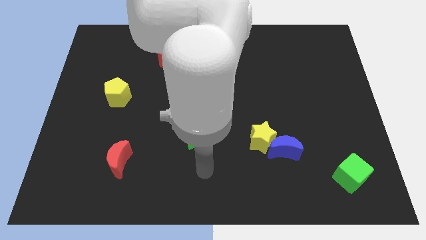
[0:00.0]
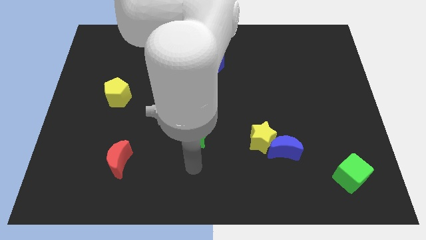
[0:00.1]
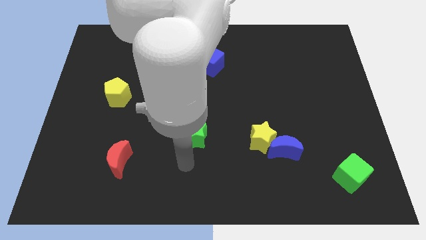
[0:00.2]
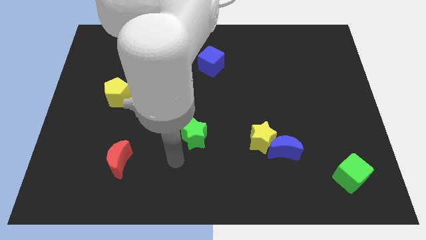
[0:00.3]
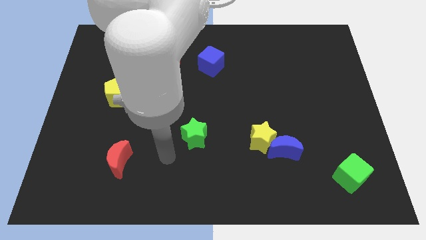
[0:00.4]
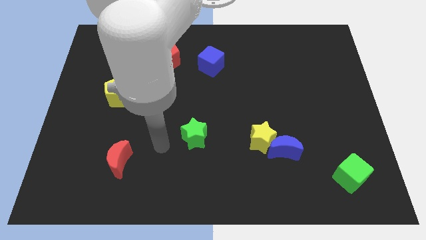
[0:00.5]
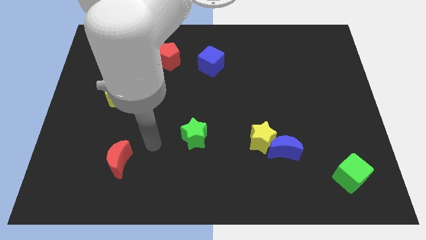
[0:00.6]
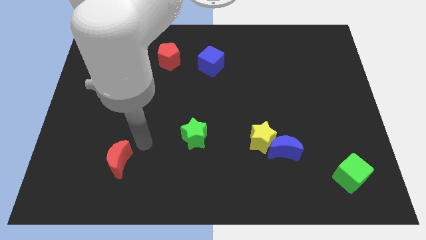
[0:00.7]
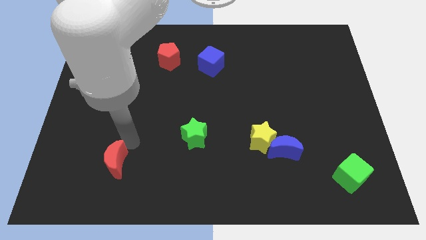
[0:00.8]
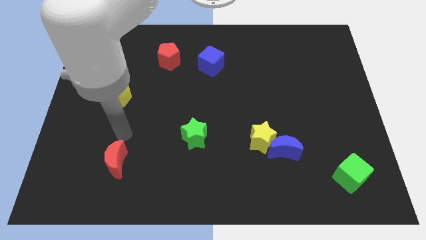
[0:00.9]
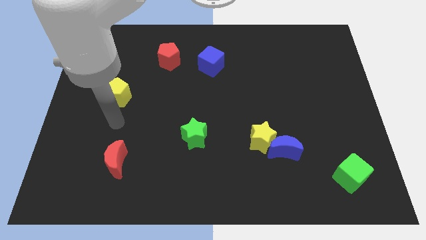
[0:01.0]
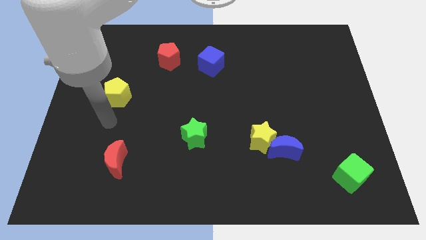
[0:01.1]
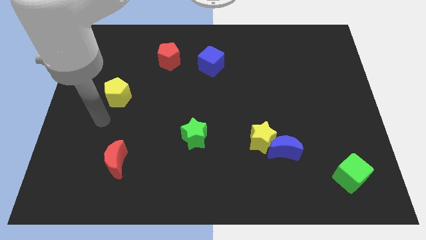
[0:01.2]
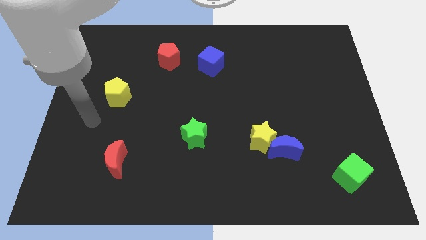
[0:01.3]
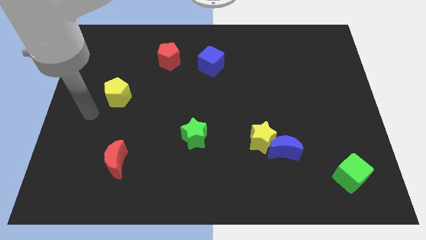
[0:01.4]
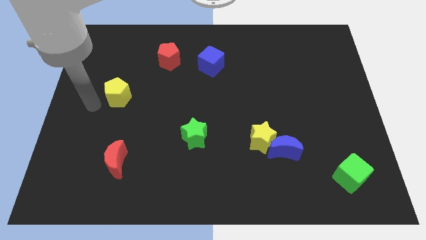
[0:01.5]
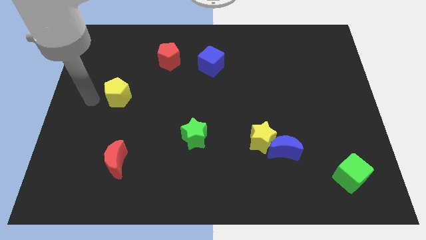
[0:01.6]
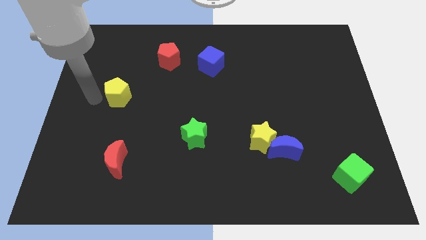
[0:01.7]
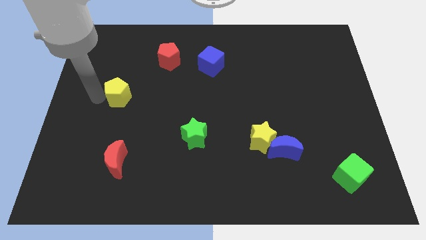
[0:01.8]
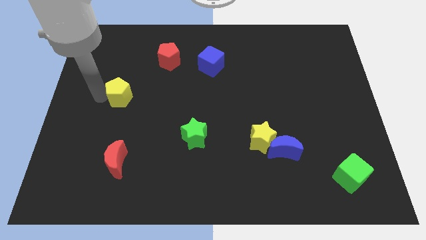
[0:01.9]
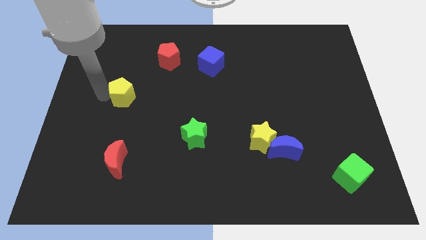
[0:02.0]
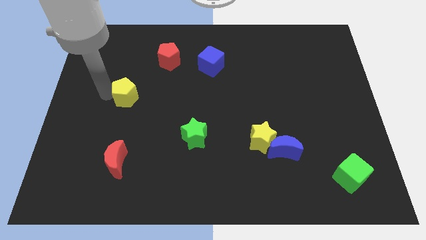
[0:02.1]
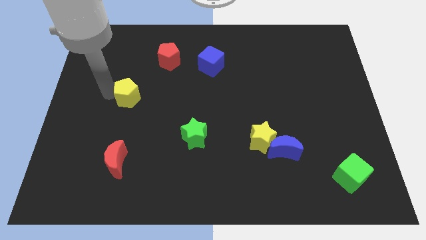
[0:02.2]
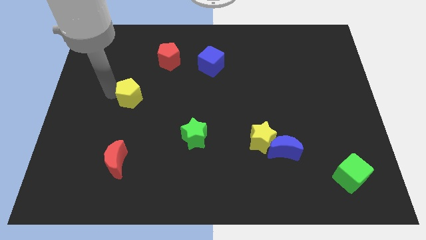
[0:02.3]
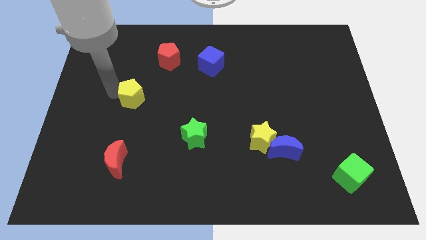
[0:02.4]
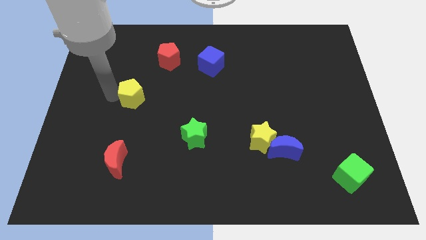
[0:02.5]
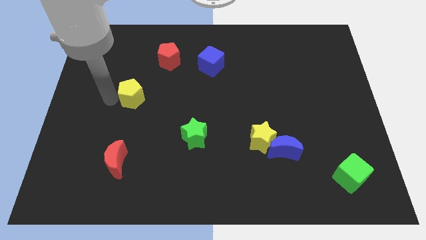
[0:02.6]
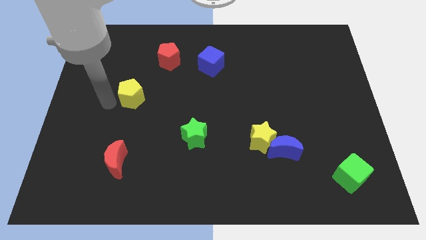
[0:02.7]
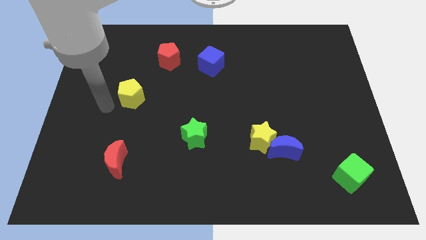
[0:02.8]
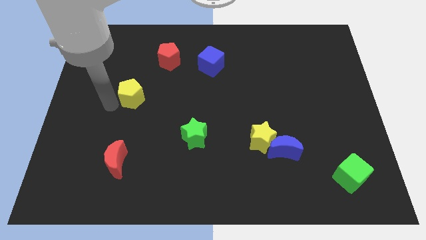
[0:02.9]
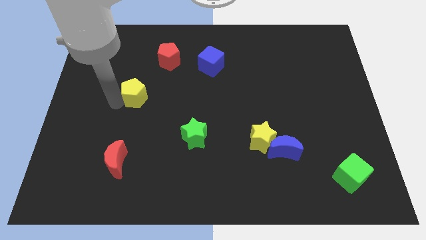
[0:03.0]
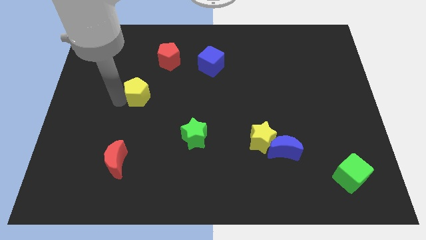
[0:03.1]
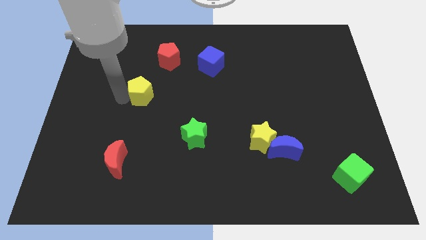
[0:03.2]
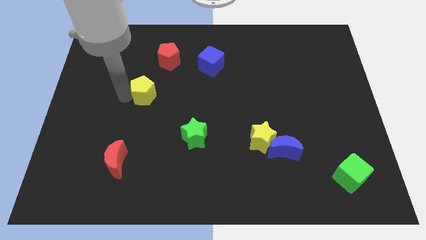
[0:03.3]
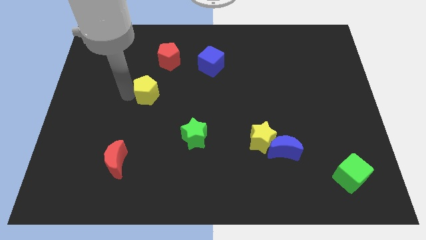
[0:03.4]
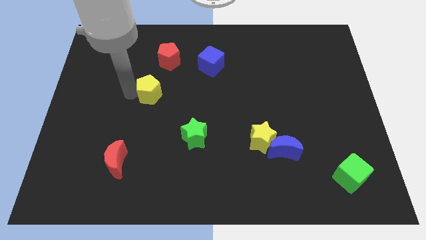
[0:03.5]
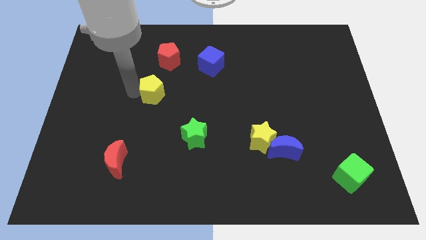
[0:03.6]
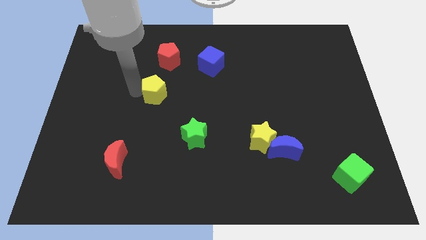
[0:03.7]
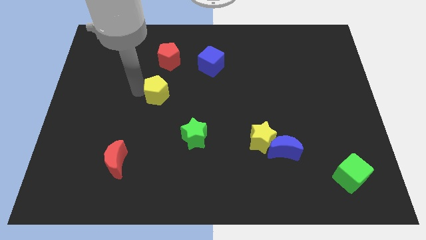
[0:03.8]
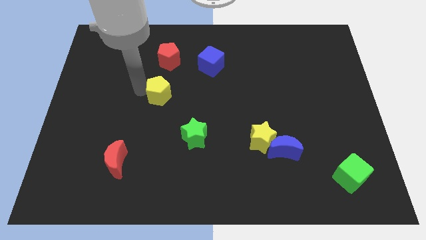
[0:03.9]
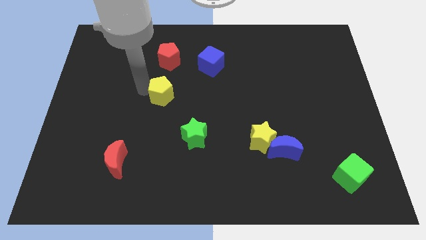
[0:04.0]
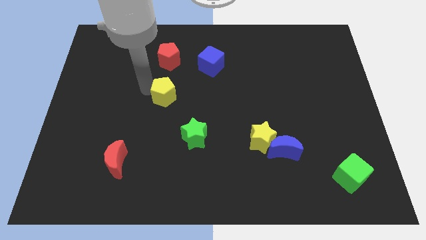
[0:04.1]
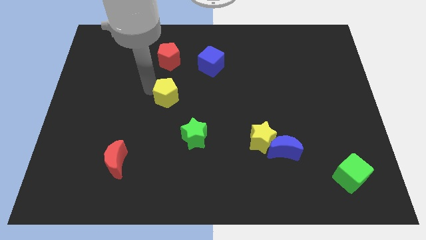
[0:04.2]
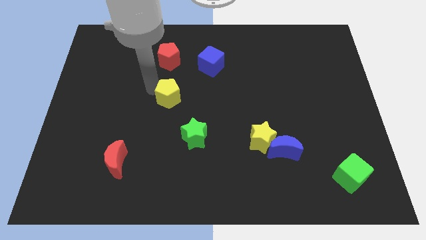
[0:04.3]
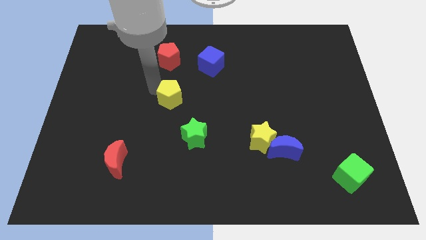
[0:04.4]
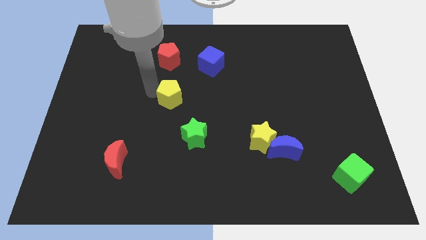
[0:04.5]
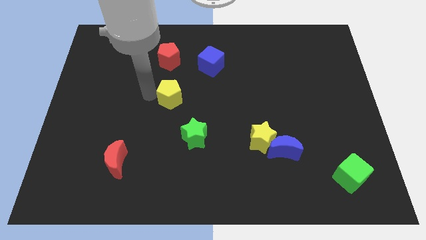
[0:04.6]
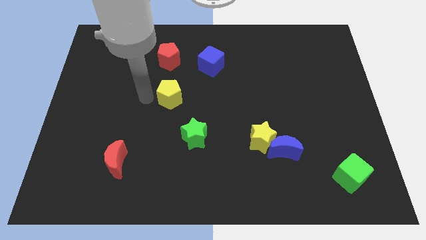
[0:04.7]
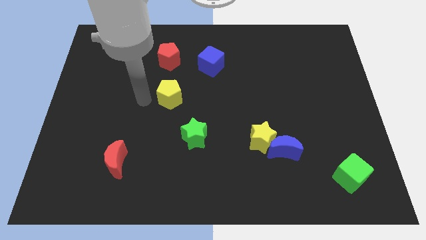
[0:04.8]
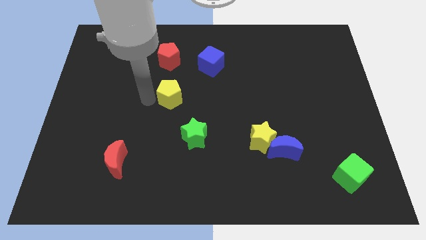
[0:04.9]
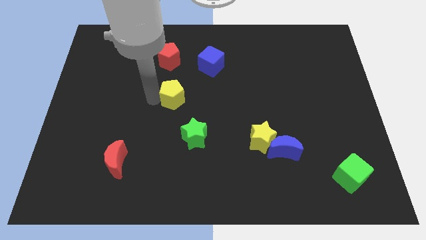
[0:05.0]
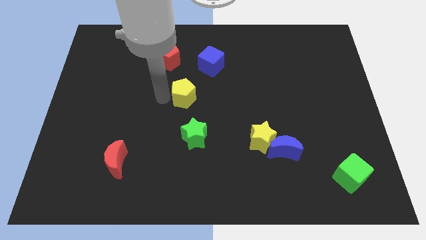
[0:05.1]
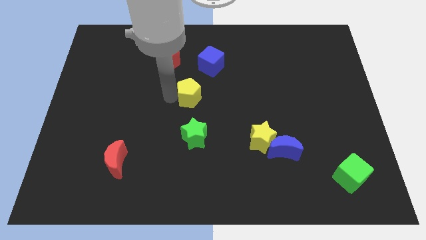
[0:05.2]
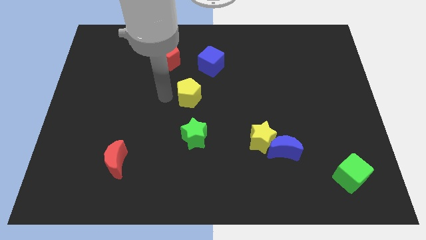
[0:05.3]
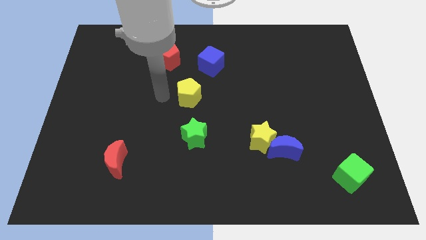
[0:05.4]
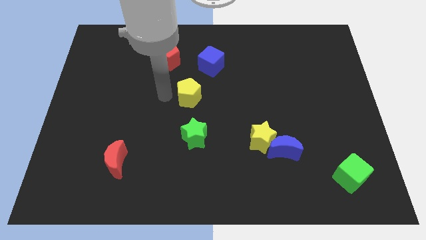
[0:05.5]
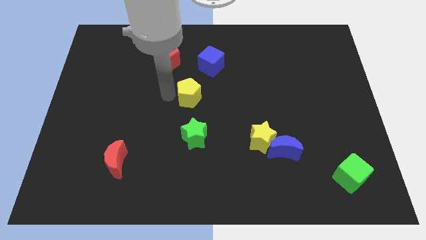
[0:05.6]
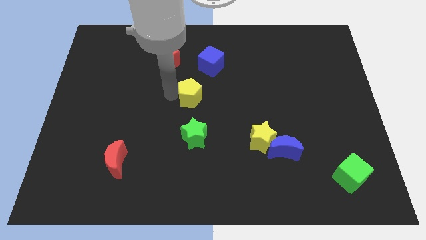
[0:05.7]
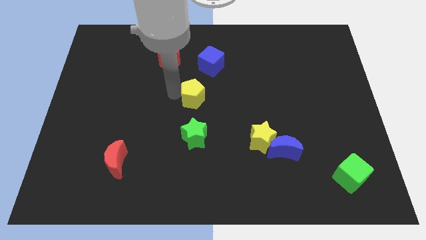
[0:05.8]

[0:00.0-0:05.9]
move the yellow pentagon below the blue cube
